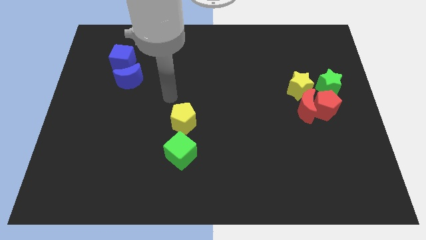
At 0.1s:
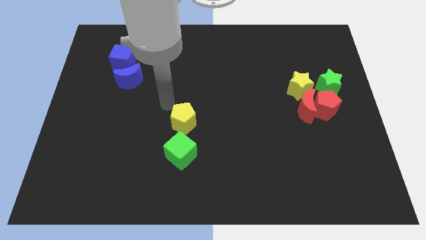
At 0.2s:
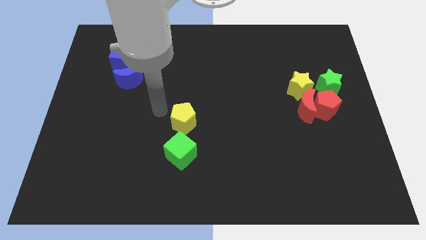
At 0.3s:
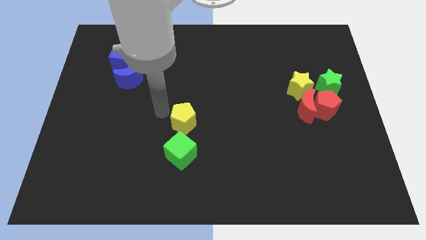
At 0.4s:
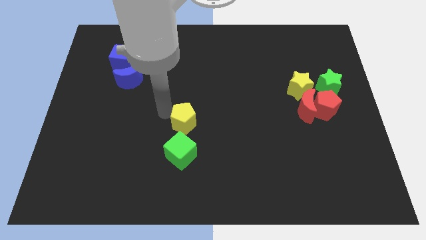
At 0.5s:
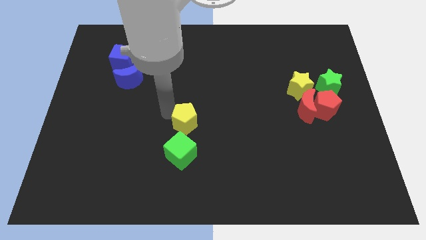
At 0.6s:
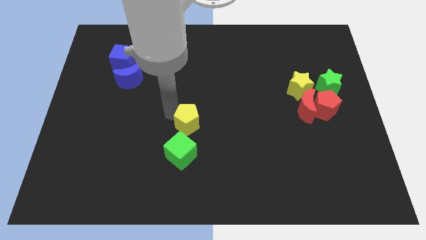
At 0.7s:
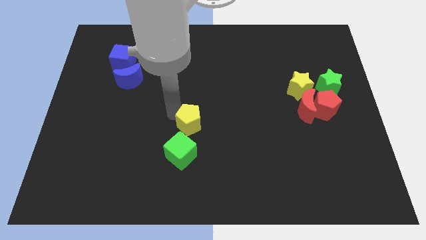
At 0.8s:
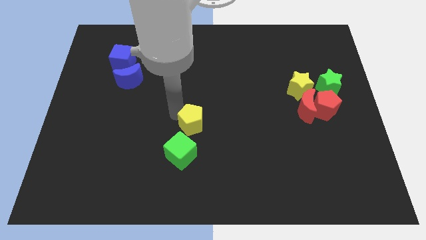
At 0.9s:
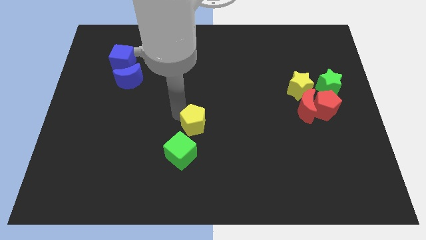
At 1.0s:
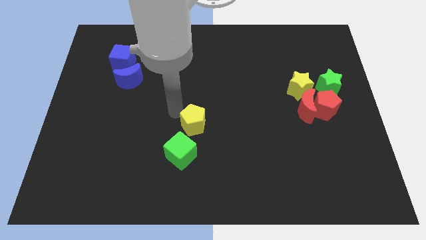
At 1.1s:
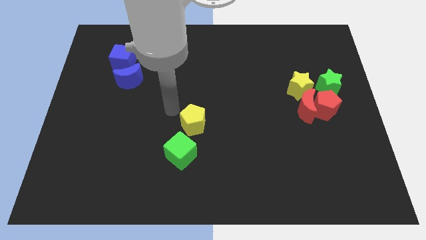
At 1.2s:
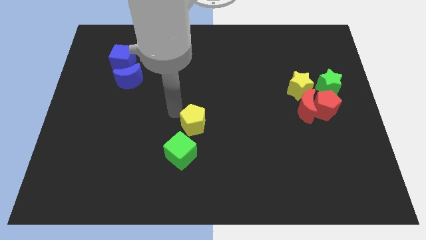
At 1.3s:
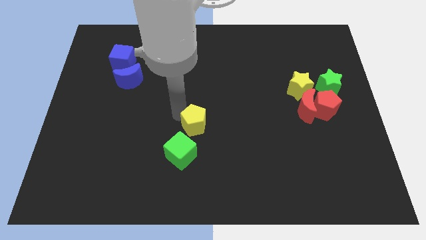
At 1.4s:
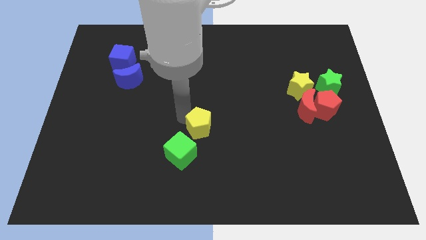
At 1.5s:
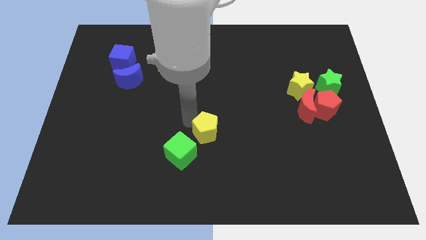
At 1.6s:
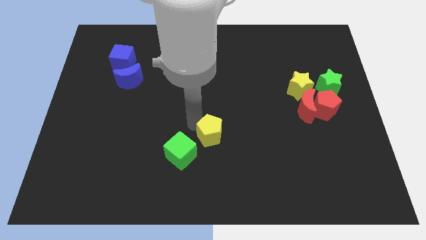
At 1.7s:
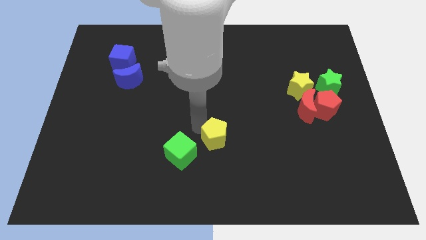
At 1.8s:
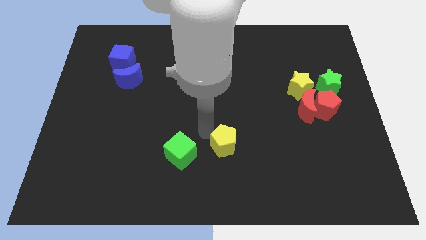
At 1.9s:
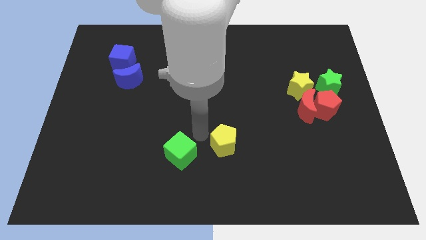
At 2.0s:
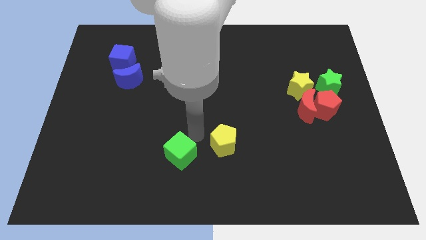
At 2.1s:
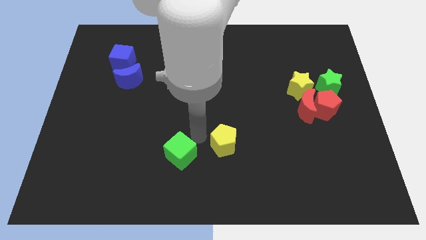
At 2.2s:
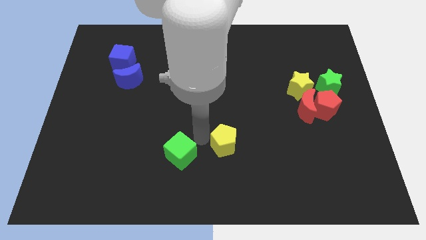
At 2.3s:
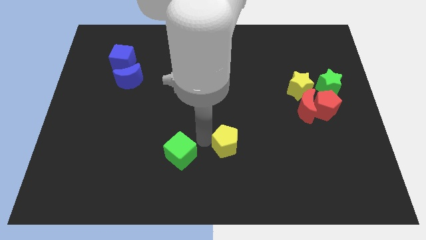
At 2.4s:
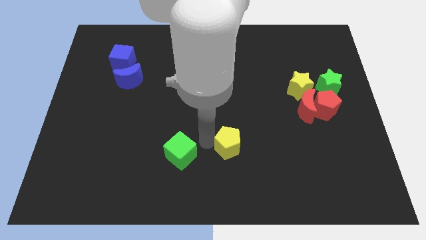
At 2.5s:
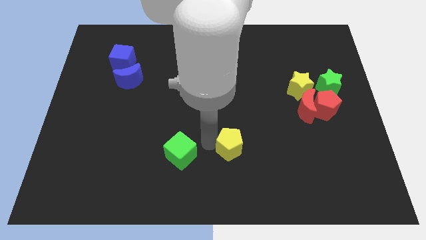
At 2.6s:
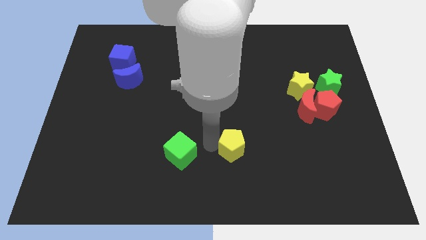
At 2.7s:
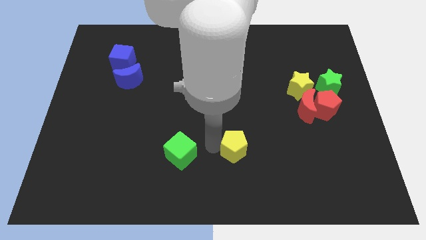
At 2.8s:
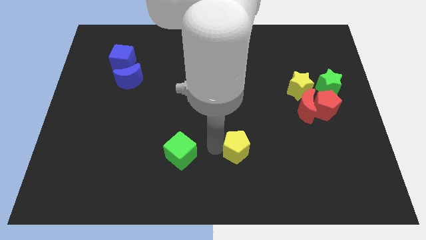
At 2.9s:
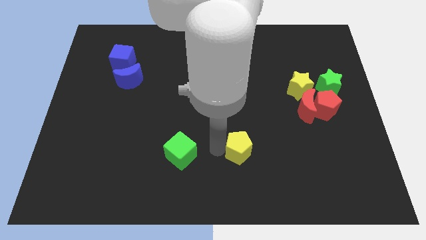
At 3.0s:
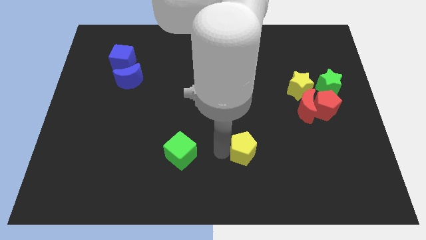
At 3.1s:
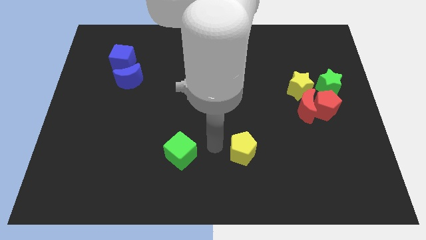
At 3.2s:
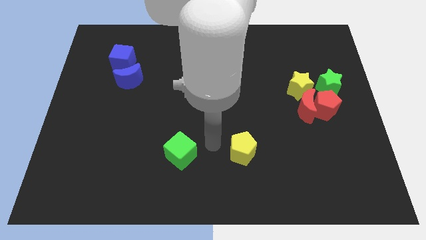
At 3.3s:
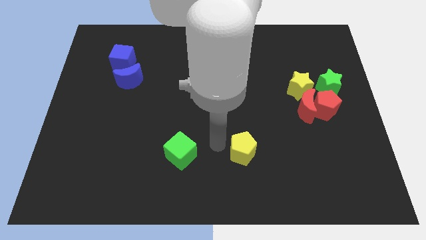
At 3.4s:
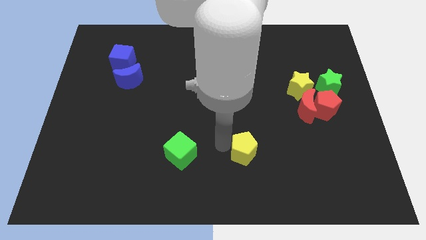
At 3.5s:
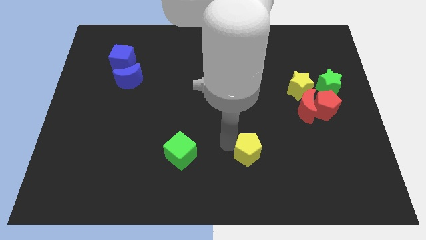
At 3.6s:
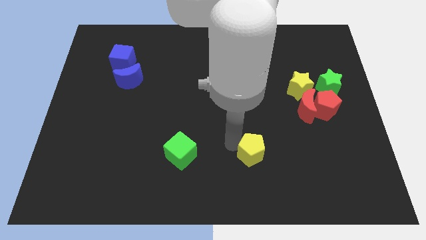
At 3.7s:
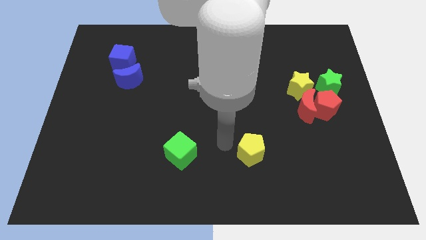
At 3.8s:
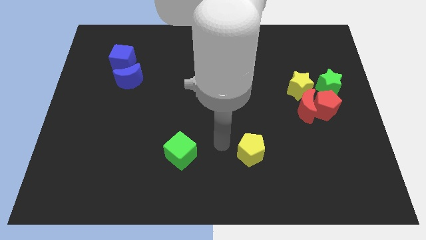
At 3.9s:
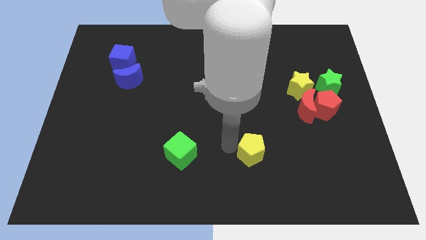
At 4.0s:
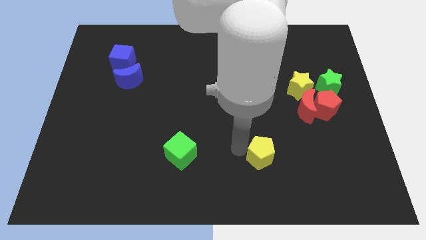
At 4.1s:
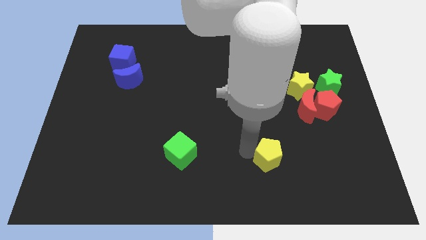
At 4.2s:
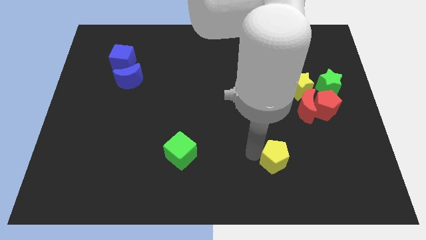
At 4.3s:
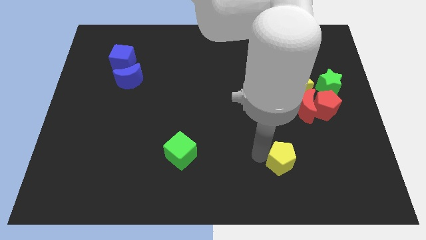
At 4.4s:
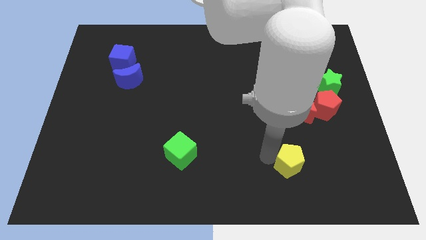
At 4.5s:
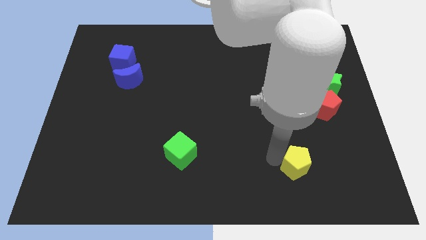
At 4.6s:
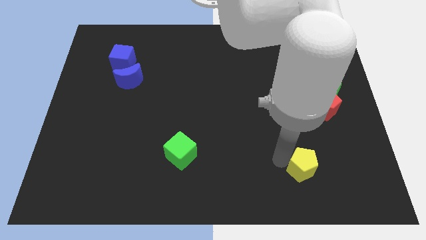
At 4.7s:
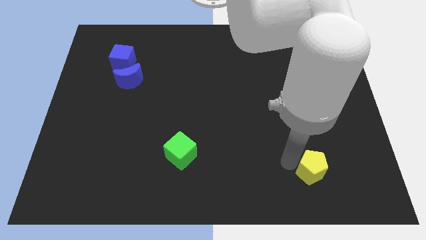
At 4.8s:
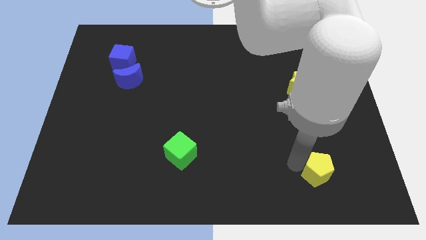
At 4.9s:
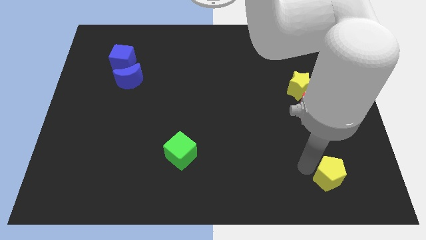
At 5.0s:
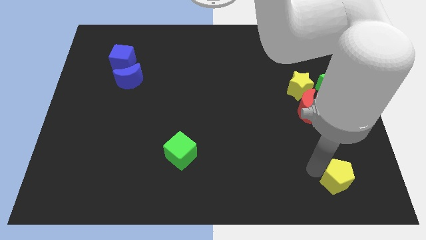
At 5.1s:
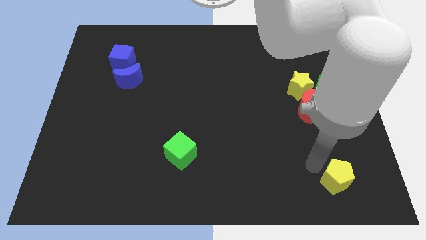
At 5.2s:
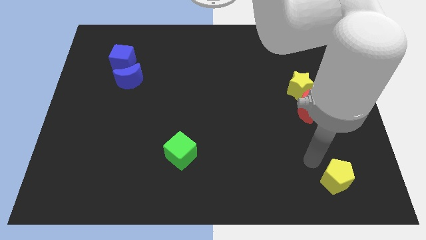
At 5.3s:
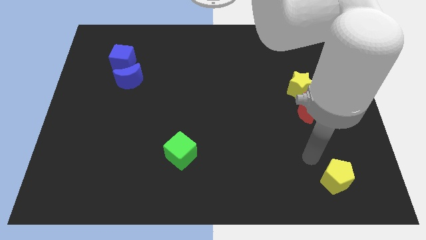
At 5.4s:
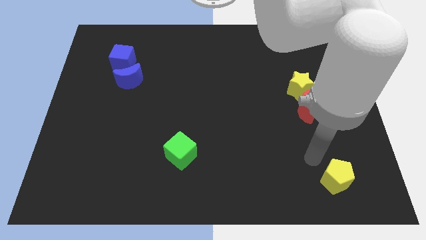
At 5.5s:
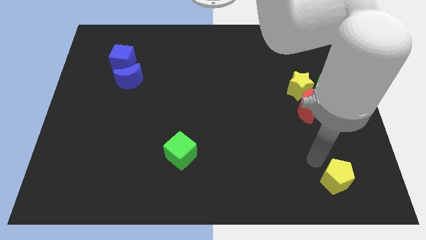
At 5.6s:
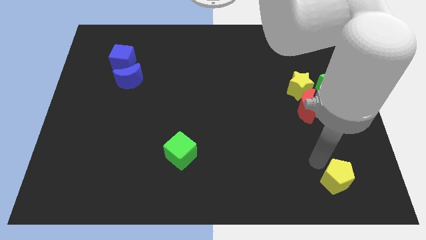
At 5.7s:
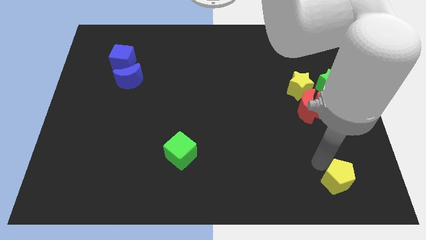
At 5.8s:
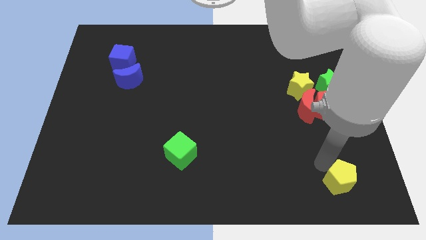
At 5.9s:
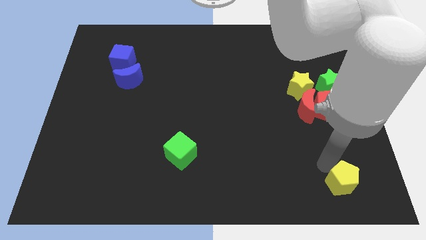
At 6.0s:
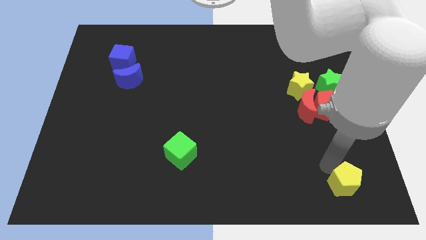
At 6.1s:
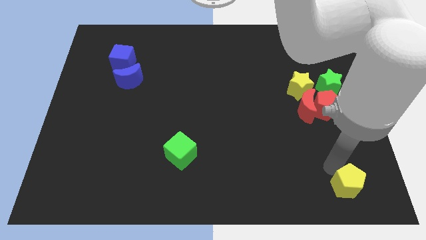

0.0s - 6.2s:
slide the yellow pentagon to the bottom right of the board

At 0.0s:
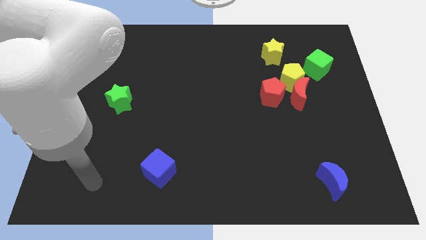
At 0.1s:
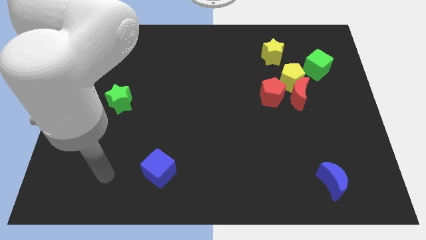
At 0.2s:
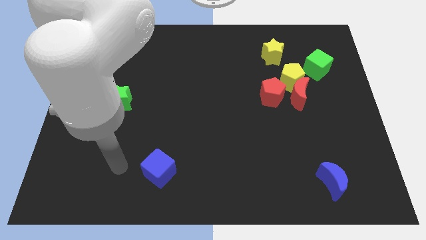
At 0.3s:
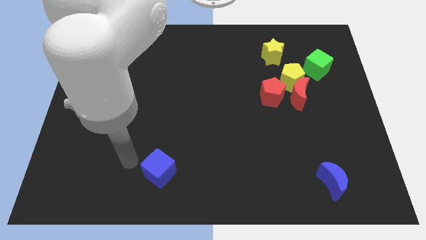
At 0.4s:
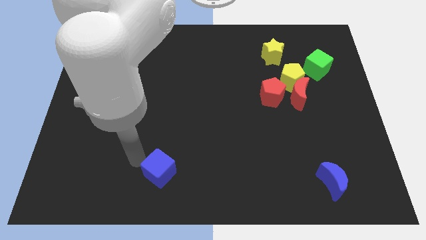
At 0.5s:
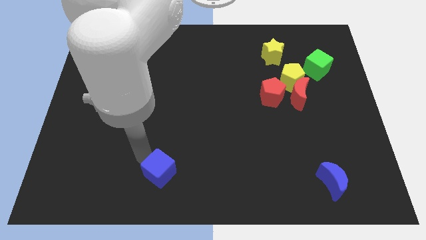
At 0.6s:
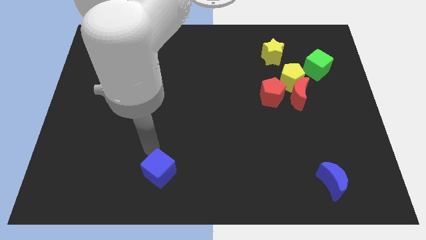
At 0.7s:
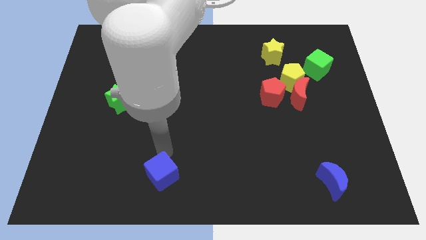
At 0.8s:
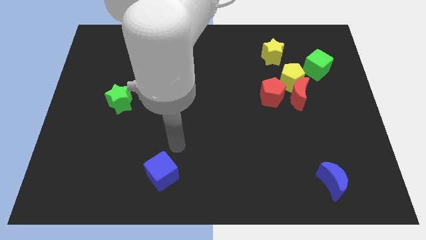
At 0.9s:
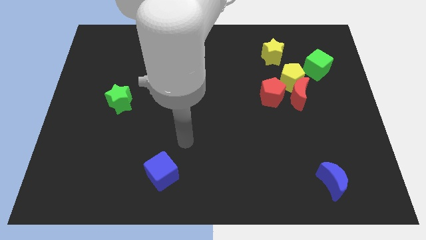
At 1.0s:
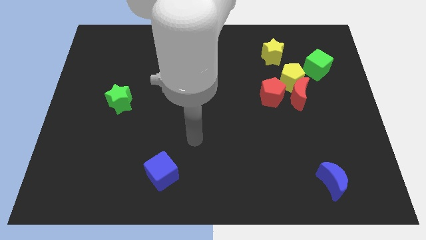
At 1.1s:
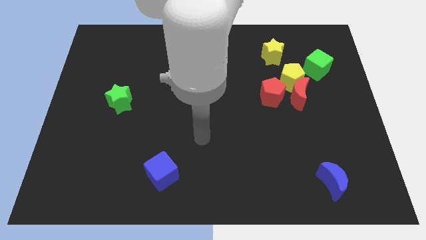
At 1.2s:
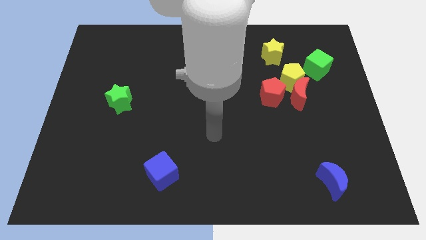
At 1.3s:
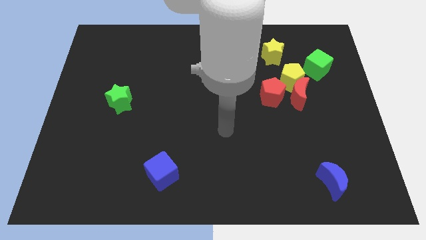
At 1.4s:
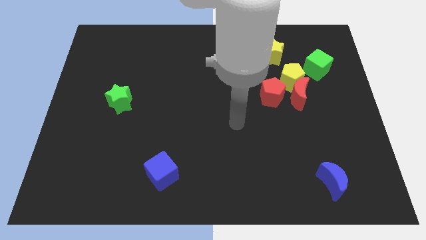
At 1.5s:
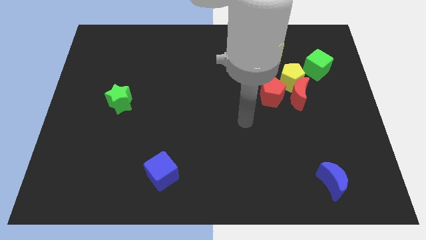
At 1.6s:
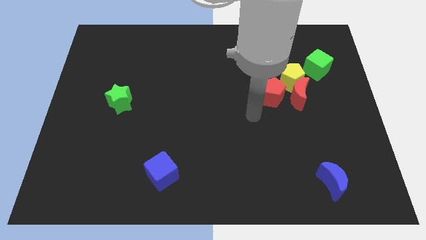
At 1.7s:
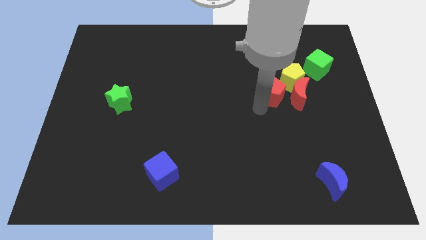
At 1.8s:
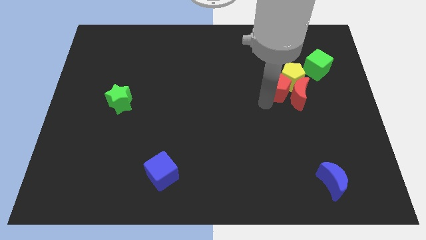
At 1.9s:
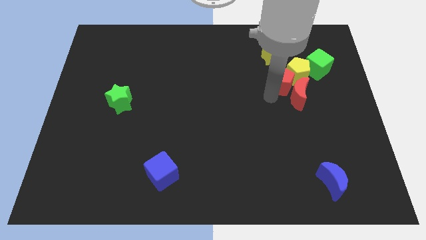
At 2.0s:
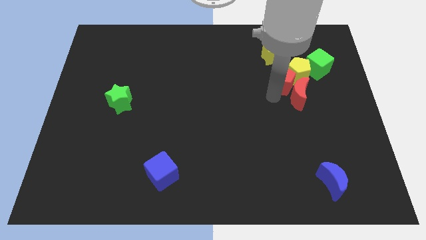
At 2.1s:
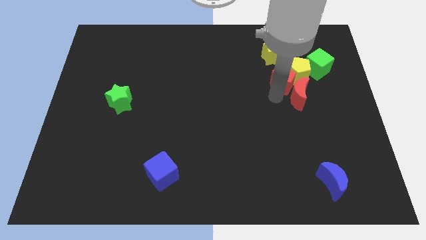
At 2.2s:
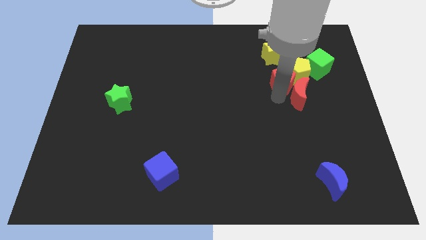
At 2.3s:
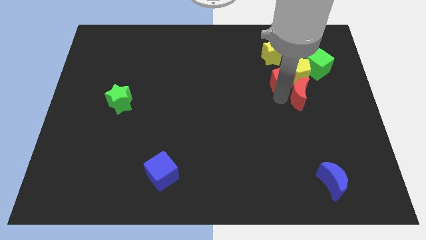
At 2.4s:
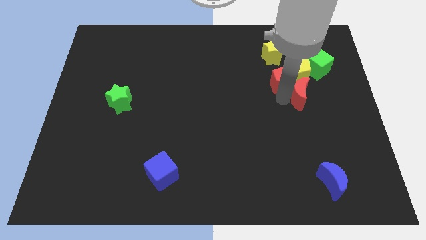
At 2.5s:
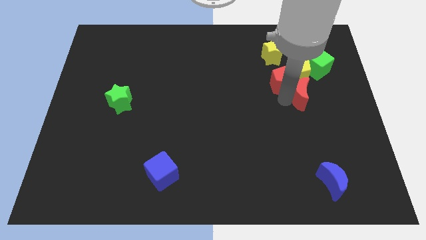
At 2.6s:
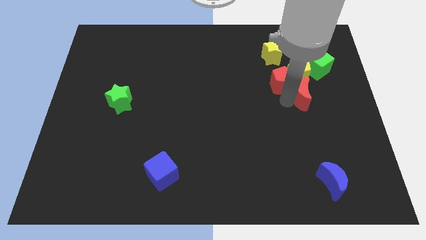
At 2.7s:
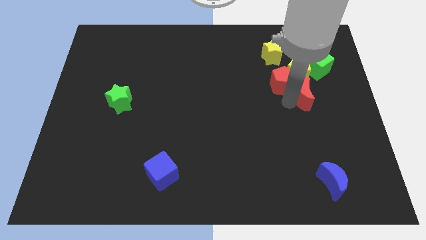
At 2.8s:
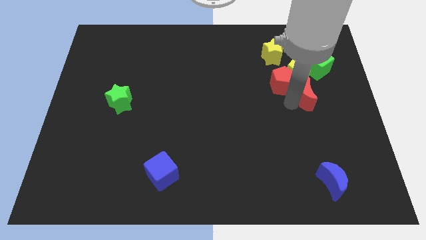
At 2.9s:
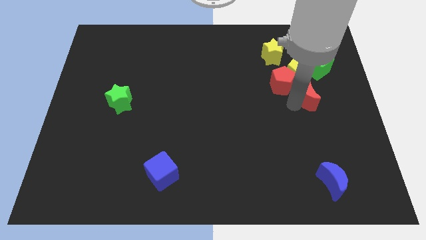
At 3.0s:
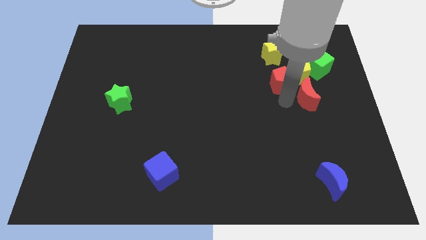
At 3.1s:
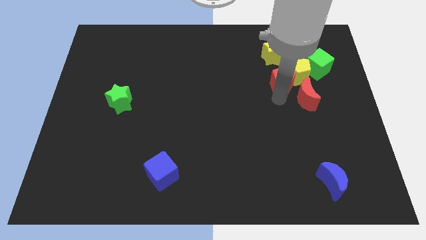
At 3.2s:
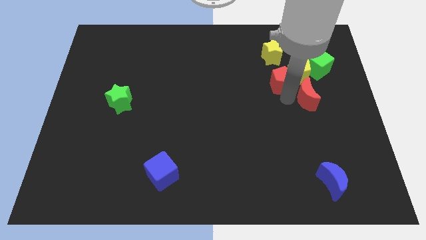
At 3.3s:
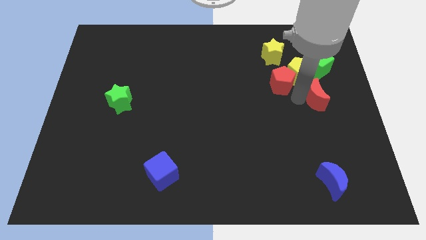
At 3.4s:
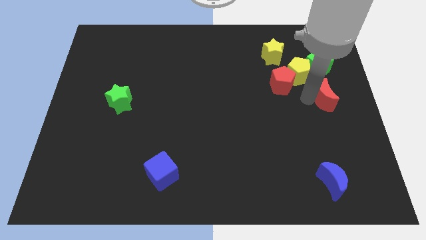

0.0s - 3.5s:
put the red moon to the center right
